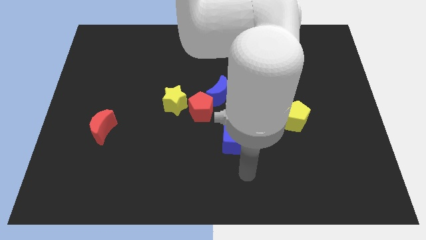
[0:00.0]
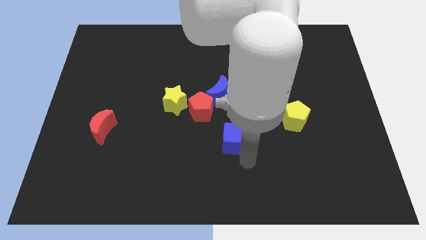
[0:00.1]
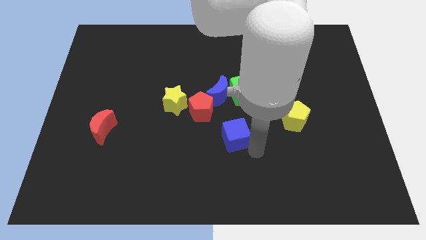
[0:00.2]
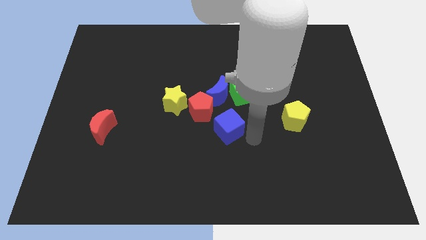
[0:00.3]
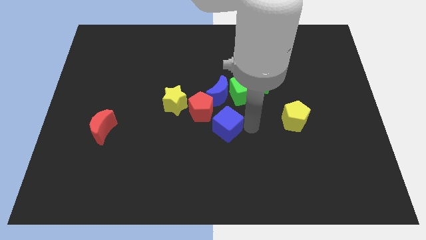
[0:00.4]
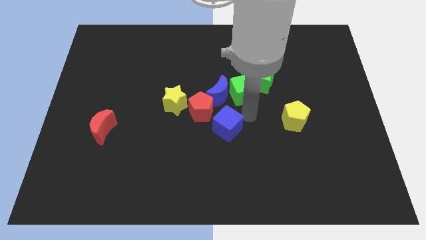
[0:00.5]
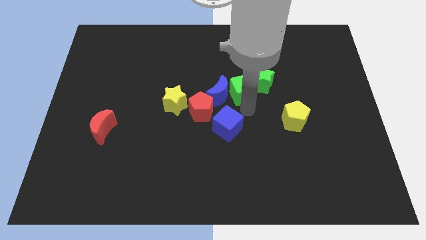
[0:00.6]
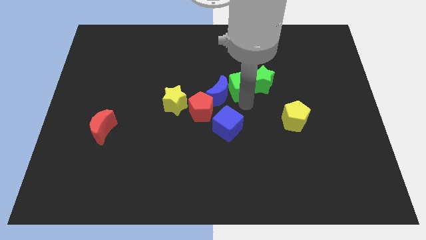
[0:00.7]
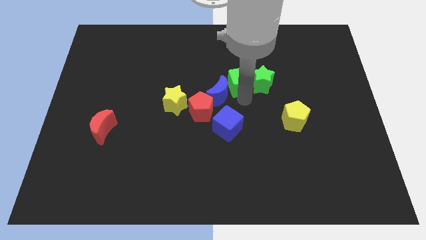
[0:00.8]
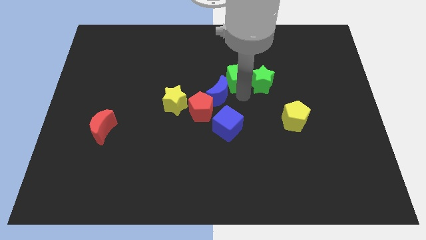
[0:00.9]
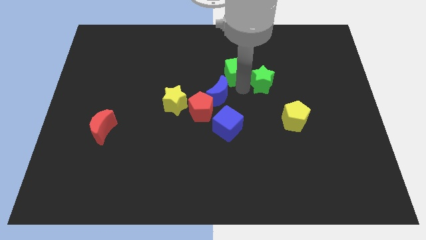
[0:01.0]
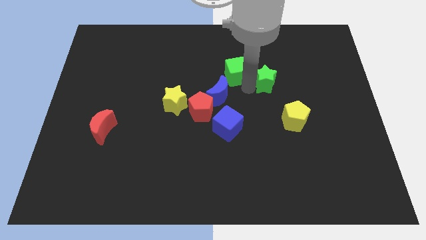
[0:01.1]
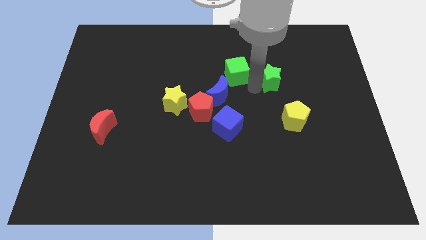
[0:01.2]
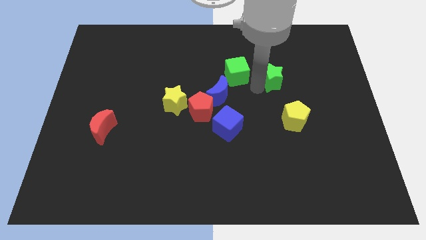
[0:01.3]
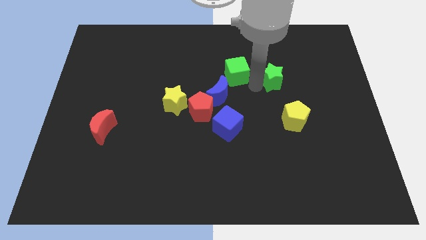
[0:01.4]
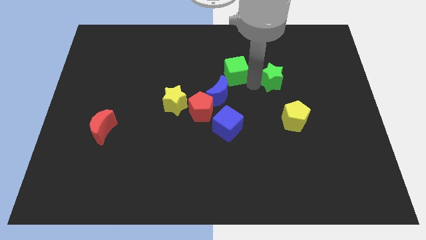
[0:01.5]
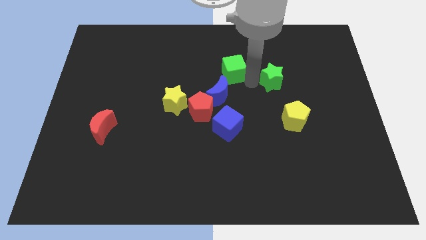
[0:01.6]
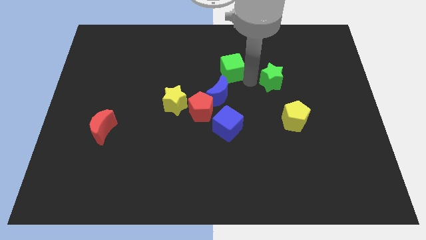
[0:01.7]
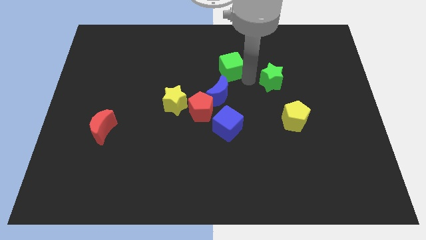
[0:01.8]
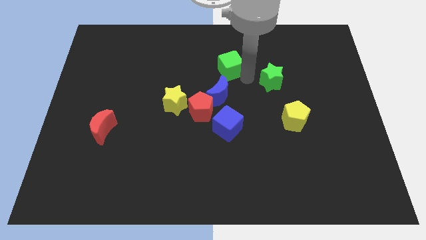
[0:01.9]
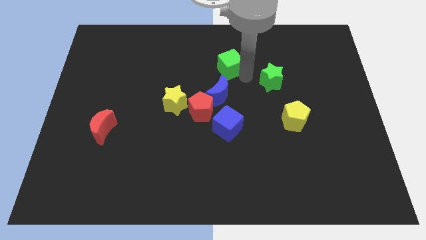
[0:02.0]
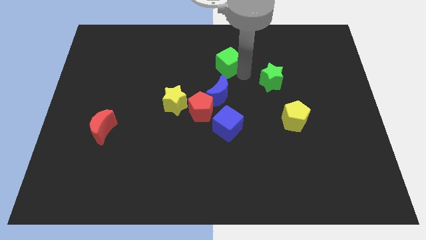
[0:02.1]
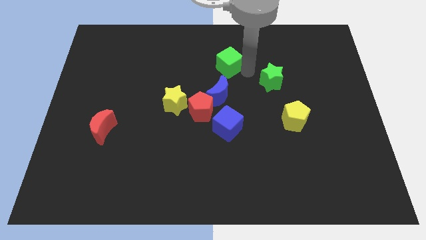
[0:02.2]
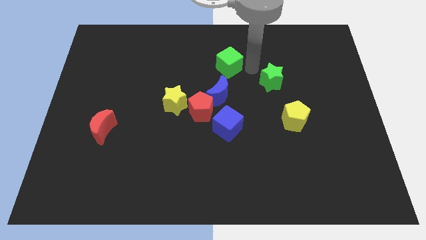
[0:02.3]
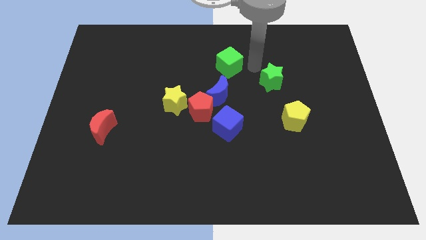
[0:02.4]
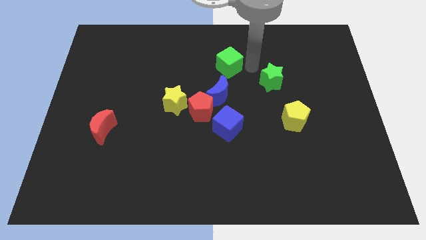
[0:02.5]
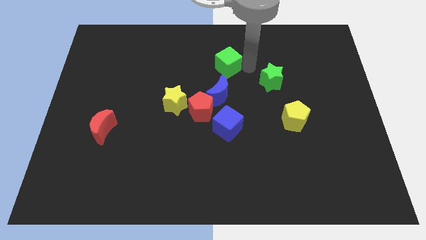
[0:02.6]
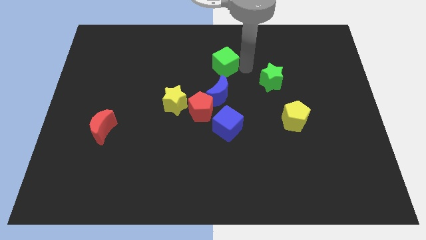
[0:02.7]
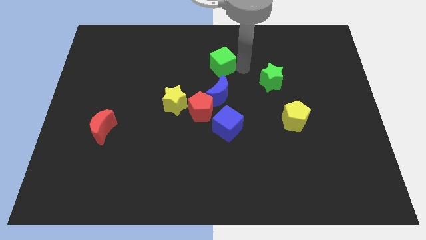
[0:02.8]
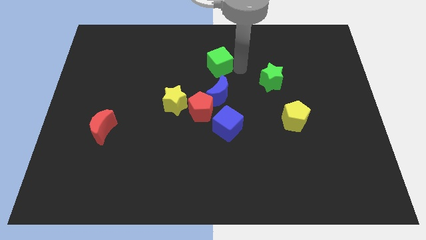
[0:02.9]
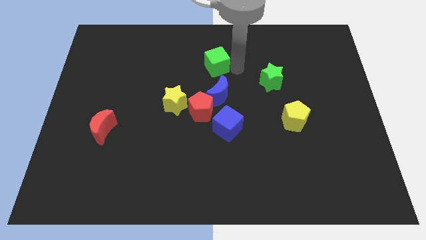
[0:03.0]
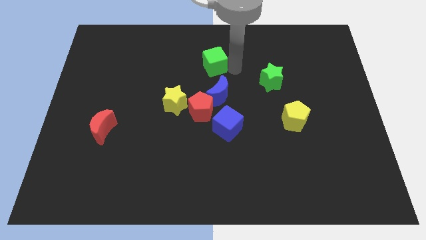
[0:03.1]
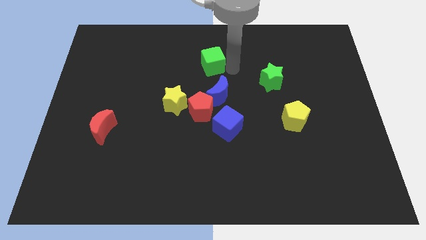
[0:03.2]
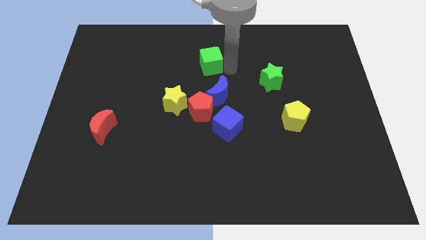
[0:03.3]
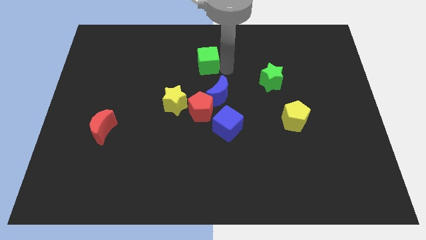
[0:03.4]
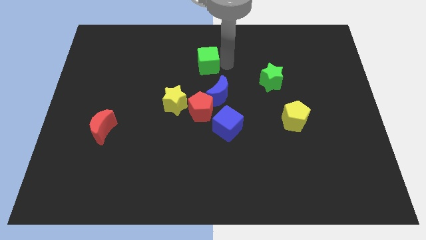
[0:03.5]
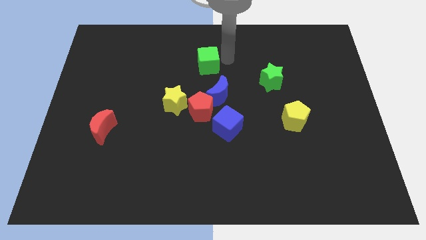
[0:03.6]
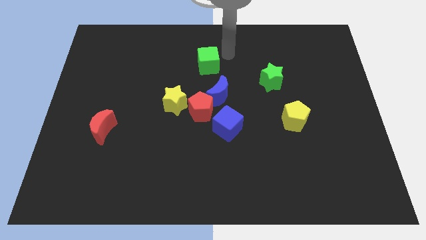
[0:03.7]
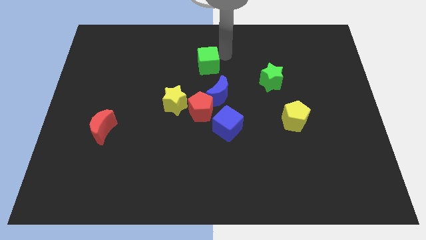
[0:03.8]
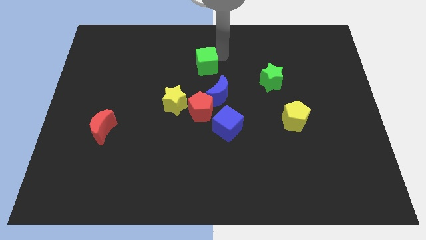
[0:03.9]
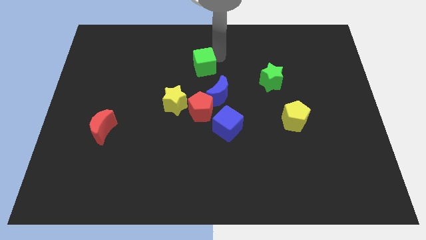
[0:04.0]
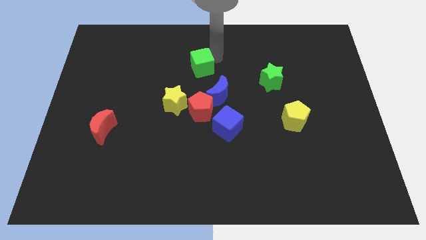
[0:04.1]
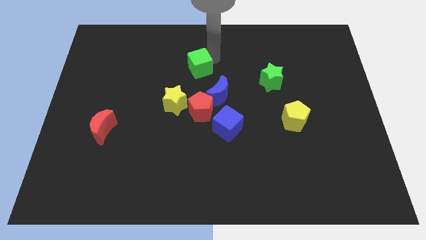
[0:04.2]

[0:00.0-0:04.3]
push the green cube somewhat to the left

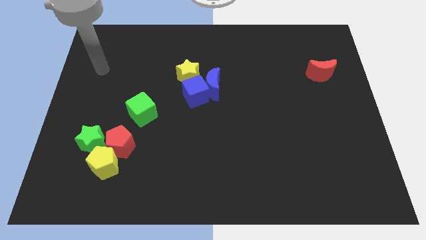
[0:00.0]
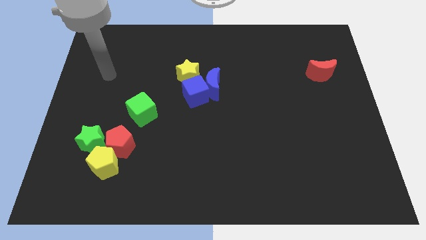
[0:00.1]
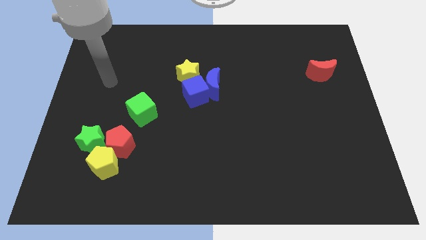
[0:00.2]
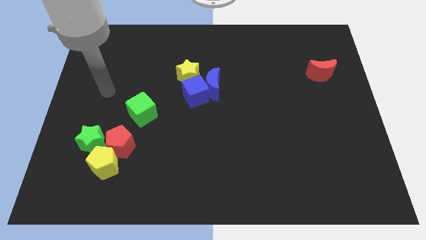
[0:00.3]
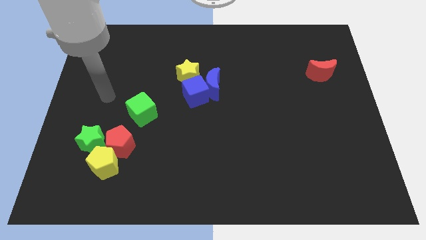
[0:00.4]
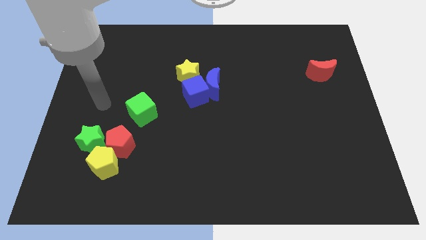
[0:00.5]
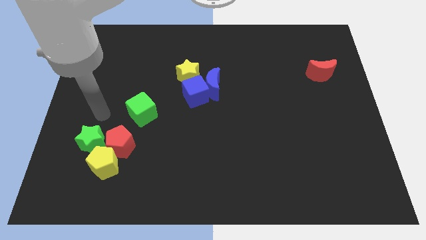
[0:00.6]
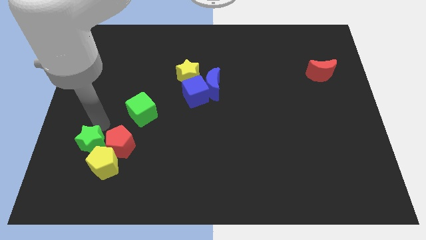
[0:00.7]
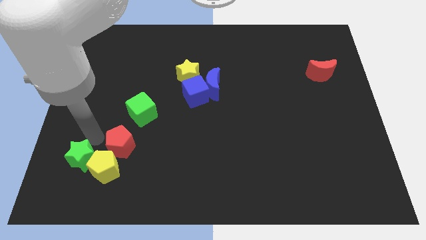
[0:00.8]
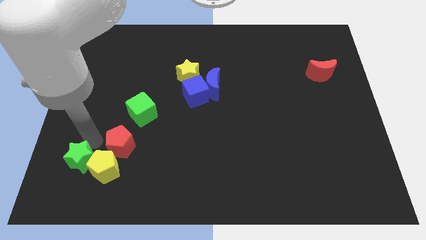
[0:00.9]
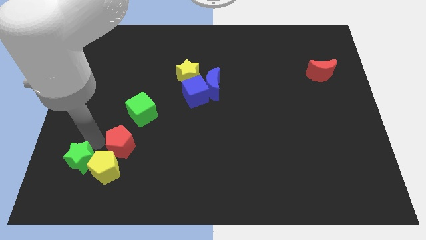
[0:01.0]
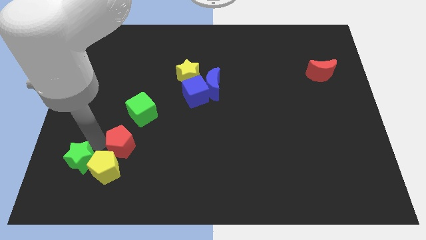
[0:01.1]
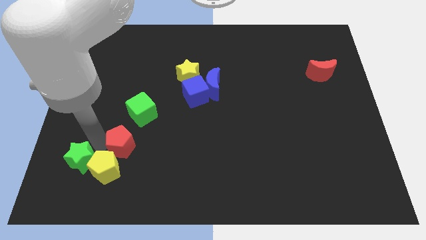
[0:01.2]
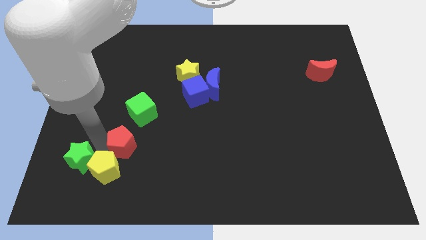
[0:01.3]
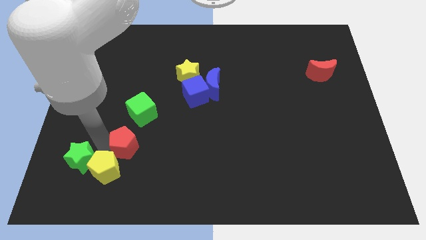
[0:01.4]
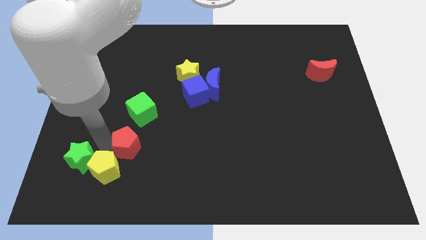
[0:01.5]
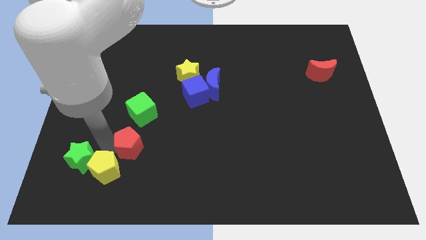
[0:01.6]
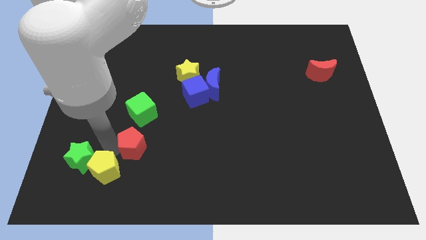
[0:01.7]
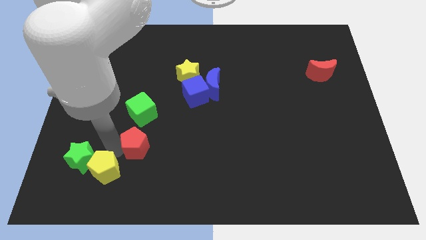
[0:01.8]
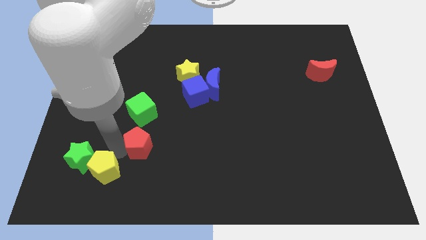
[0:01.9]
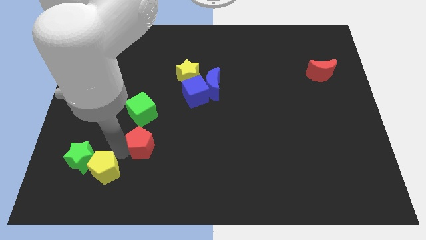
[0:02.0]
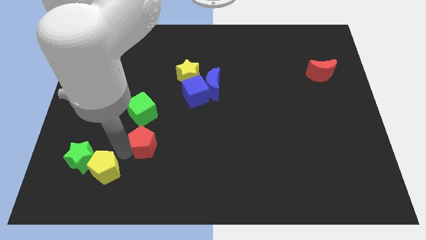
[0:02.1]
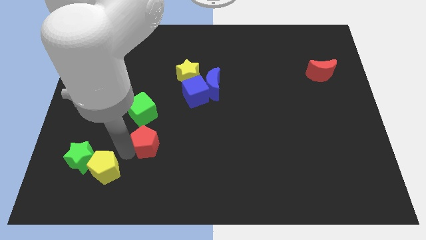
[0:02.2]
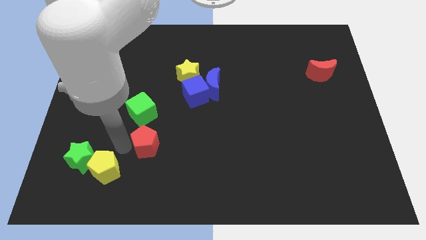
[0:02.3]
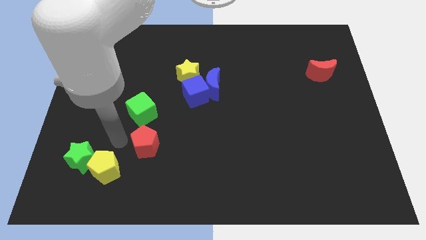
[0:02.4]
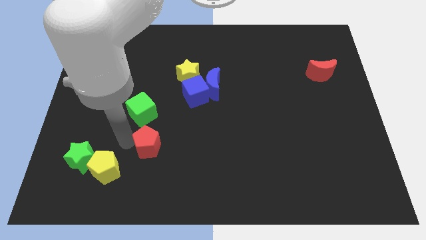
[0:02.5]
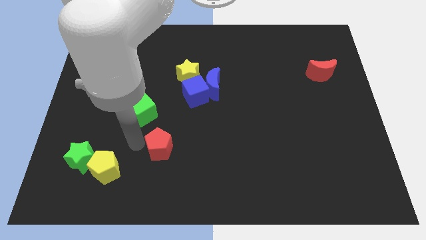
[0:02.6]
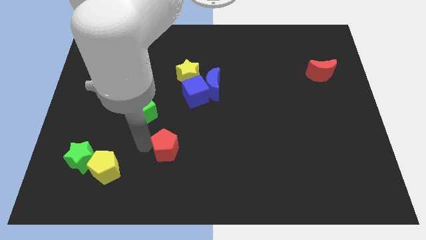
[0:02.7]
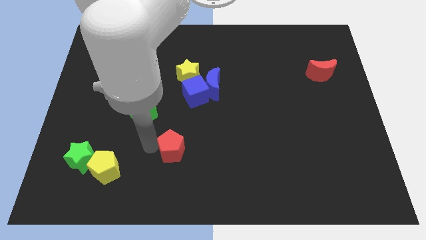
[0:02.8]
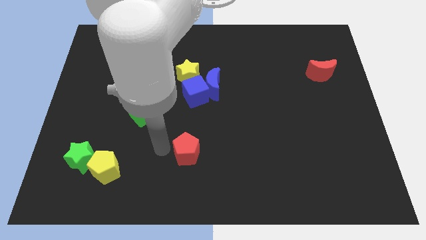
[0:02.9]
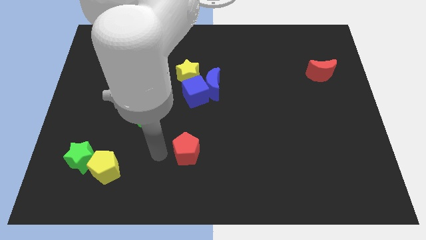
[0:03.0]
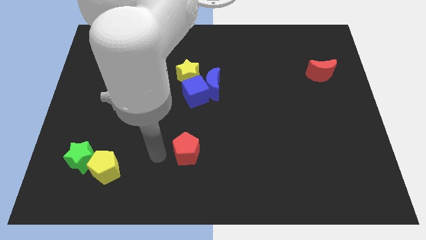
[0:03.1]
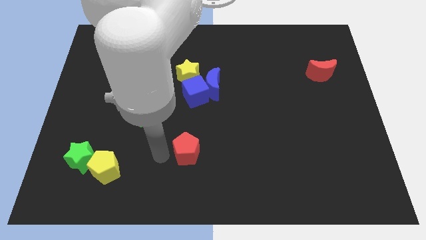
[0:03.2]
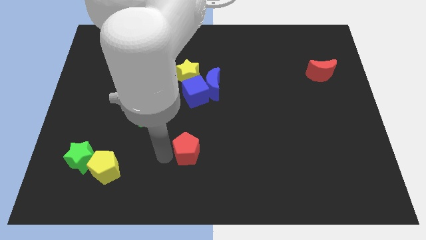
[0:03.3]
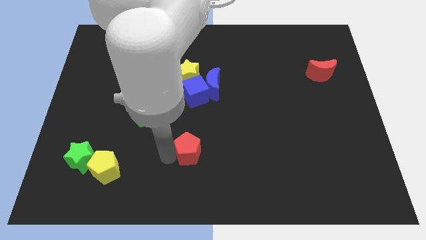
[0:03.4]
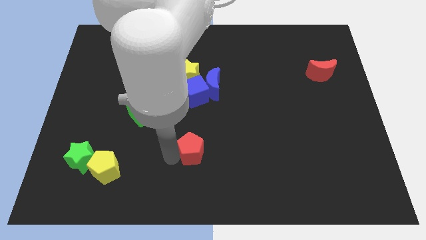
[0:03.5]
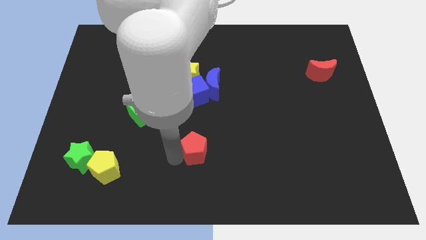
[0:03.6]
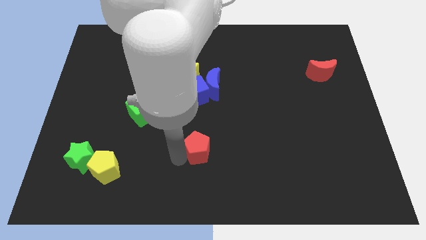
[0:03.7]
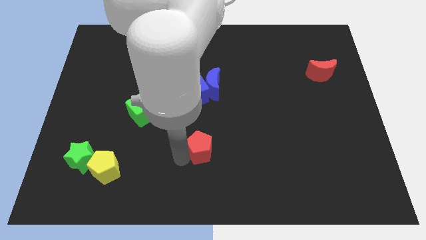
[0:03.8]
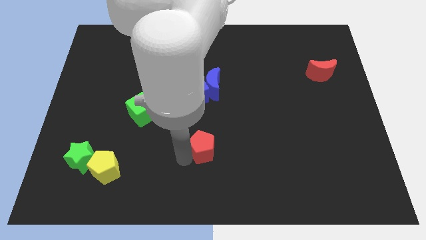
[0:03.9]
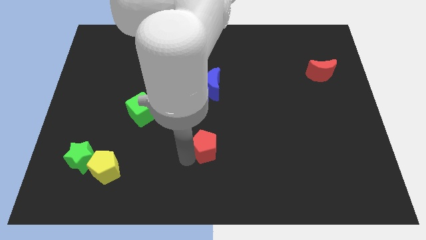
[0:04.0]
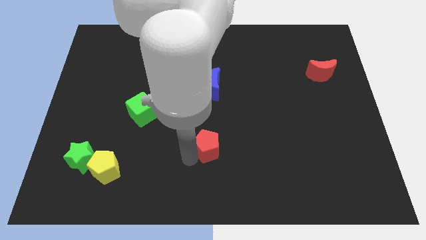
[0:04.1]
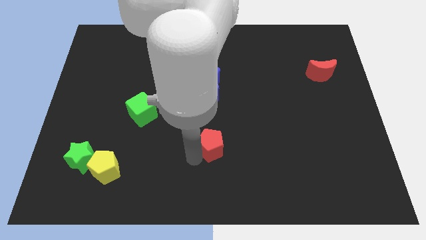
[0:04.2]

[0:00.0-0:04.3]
push the red pentagon right
